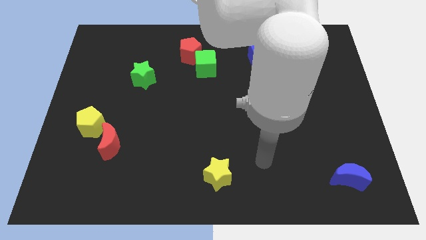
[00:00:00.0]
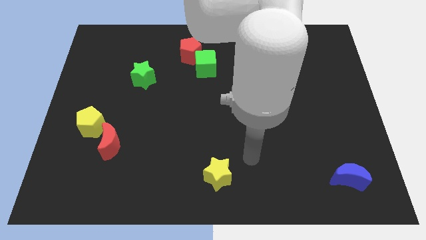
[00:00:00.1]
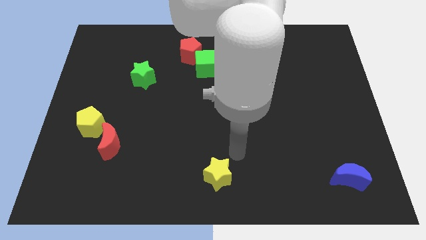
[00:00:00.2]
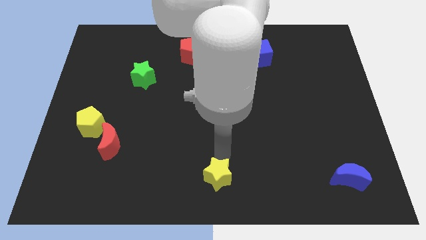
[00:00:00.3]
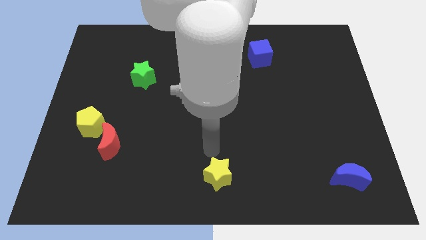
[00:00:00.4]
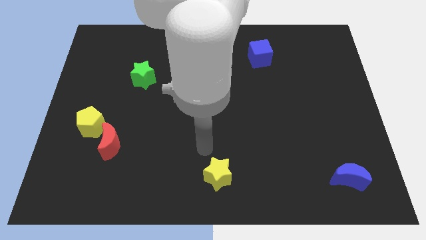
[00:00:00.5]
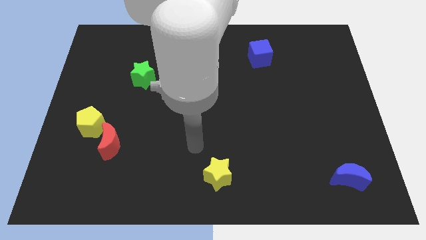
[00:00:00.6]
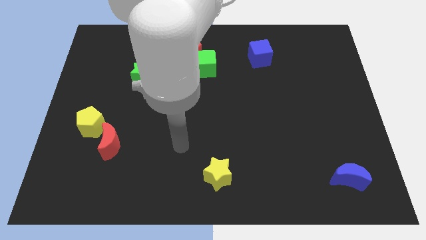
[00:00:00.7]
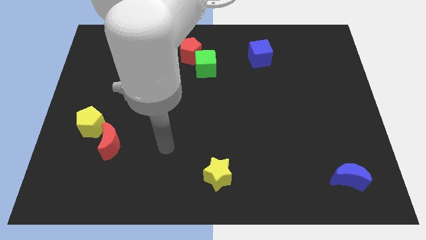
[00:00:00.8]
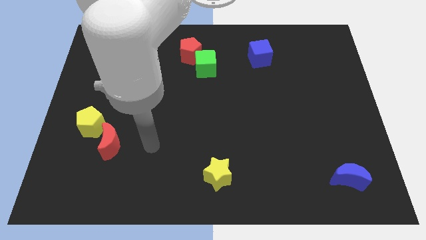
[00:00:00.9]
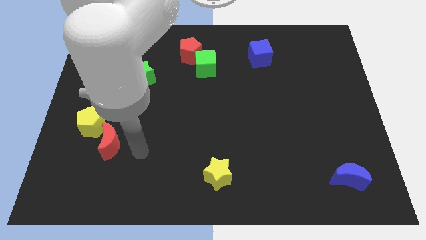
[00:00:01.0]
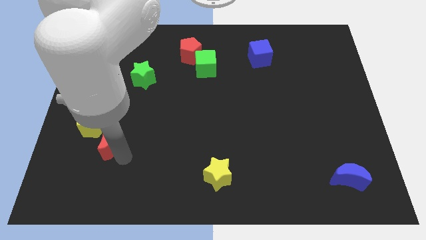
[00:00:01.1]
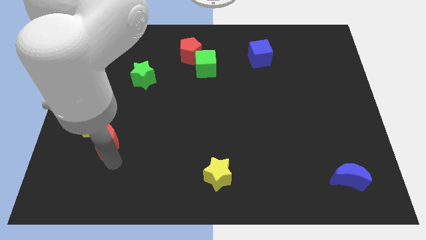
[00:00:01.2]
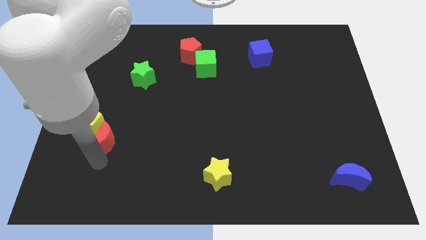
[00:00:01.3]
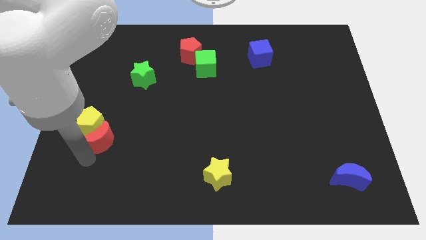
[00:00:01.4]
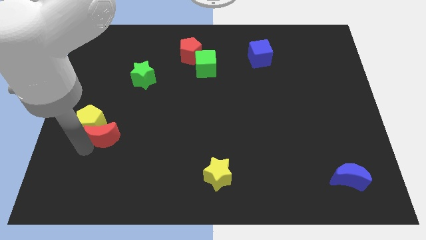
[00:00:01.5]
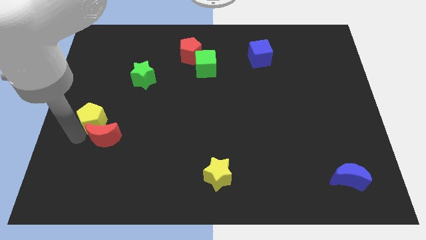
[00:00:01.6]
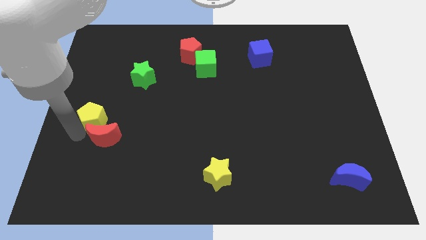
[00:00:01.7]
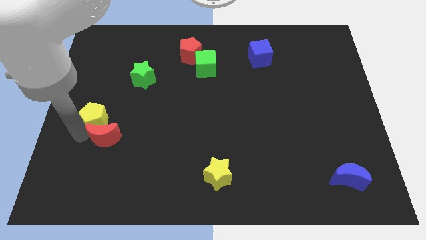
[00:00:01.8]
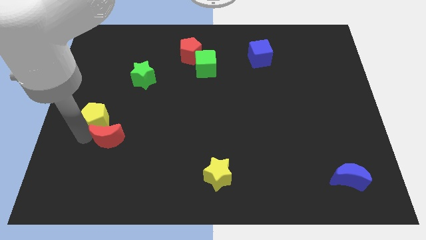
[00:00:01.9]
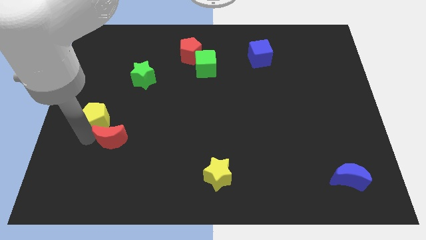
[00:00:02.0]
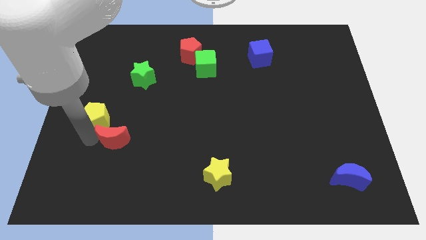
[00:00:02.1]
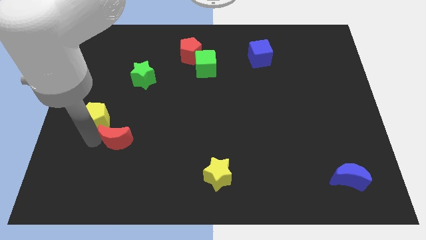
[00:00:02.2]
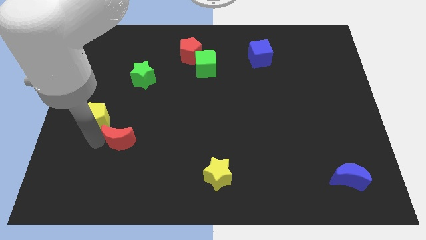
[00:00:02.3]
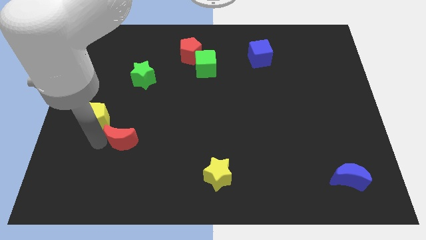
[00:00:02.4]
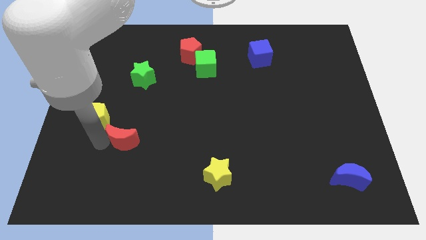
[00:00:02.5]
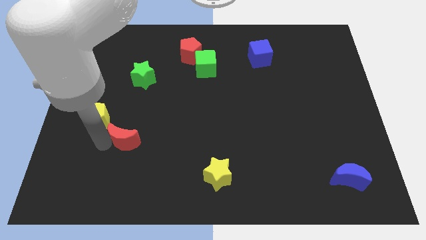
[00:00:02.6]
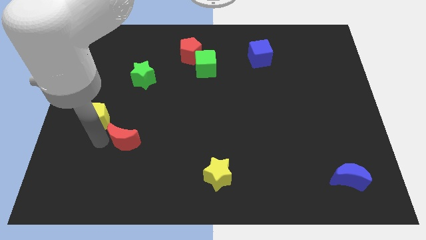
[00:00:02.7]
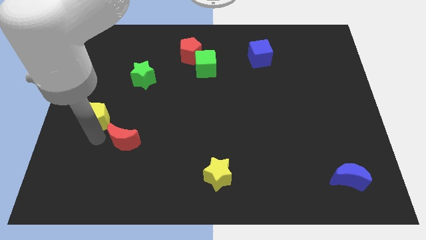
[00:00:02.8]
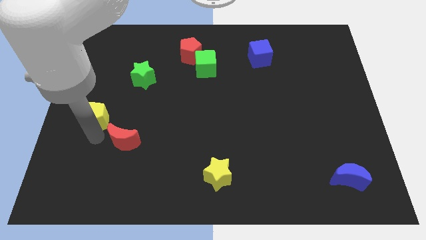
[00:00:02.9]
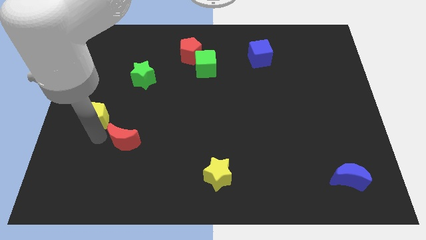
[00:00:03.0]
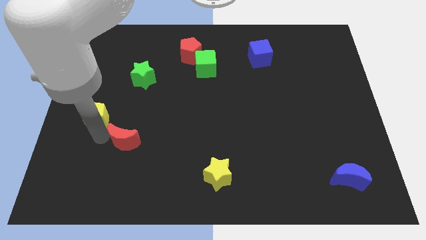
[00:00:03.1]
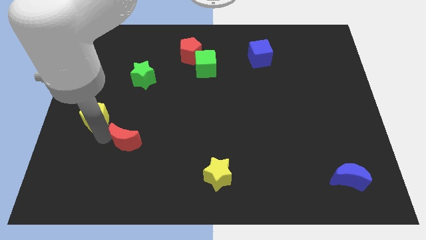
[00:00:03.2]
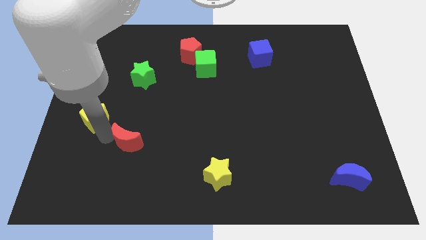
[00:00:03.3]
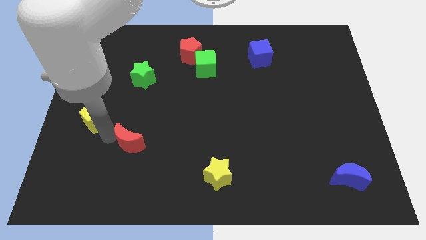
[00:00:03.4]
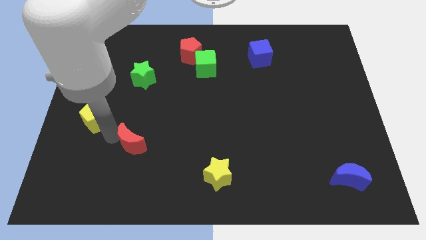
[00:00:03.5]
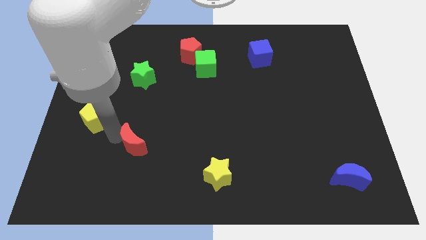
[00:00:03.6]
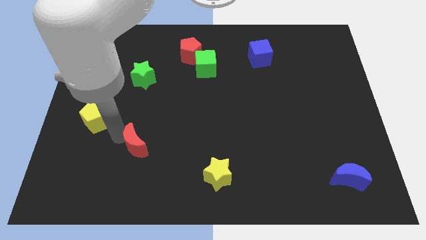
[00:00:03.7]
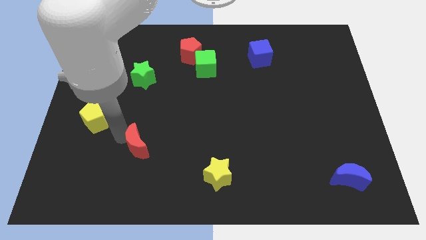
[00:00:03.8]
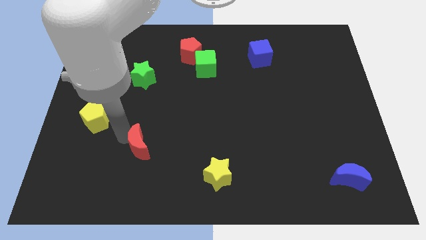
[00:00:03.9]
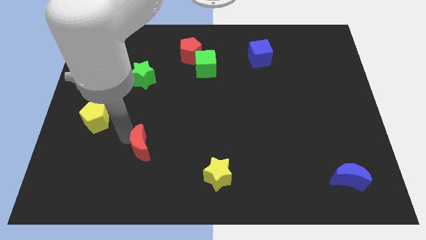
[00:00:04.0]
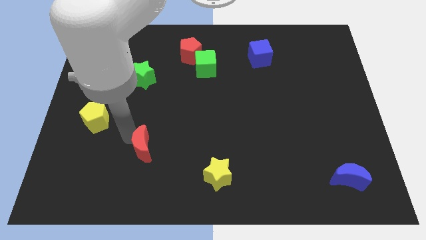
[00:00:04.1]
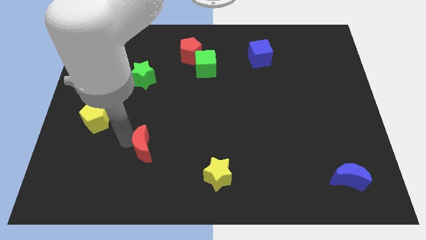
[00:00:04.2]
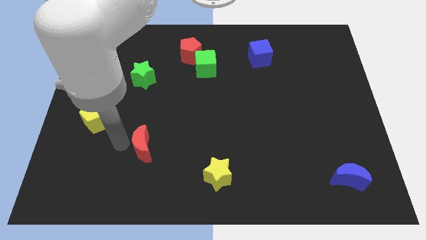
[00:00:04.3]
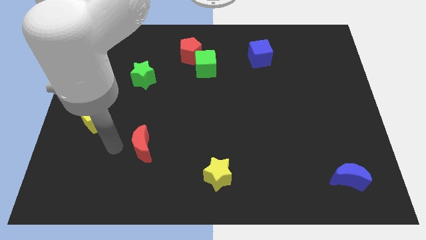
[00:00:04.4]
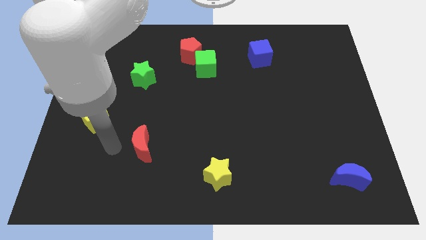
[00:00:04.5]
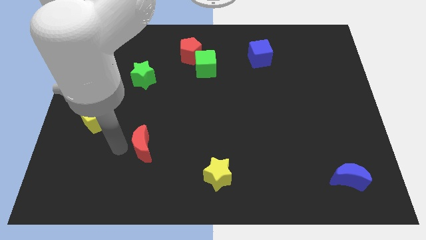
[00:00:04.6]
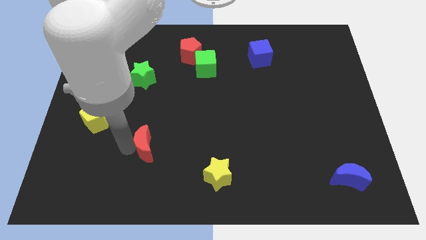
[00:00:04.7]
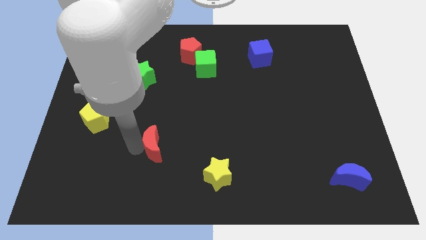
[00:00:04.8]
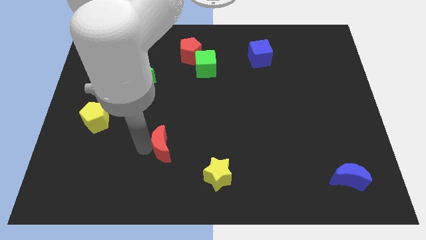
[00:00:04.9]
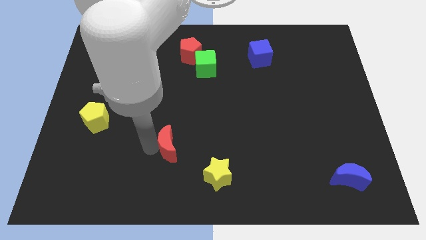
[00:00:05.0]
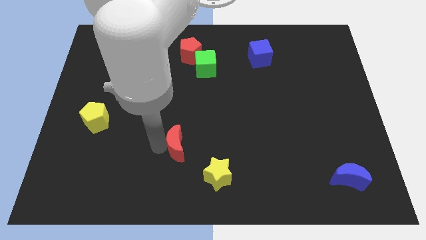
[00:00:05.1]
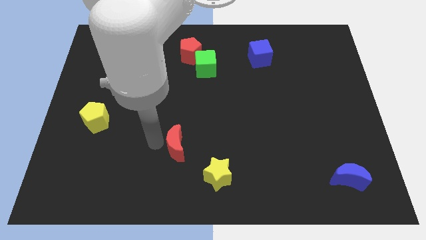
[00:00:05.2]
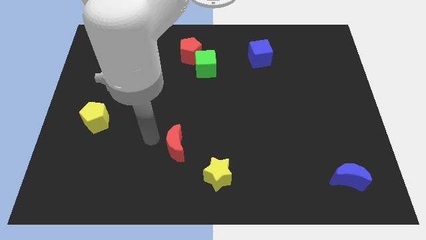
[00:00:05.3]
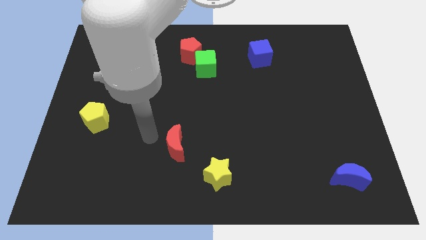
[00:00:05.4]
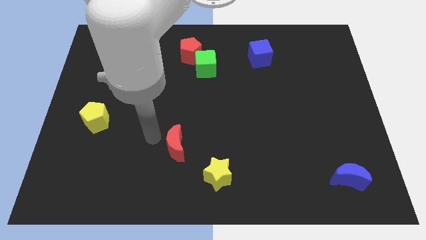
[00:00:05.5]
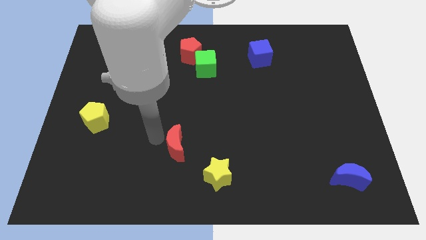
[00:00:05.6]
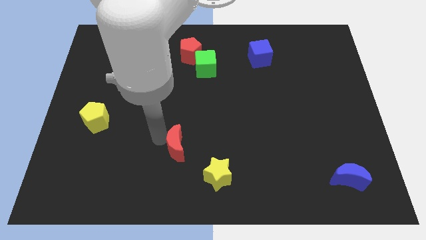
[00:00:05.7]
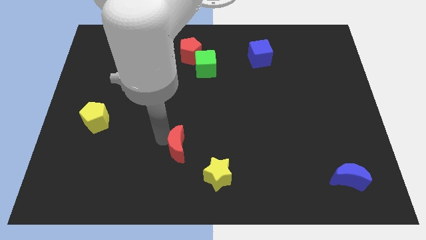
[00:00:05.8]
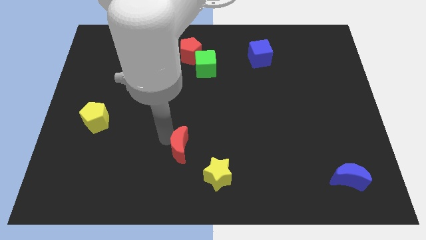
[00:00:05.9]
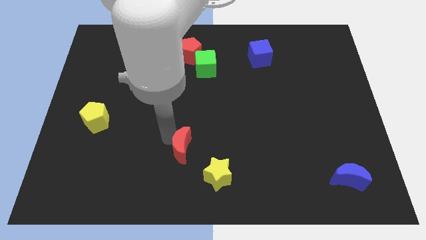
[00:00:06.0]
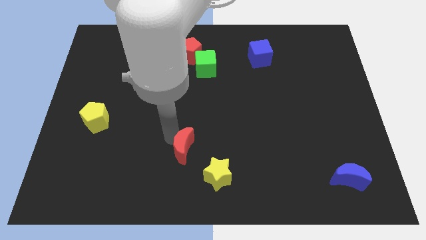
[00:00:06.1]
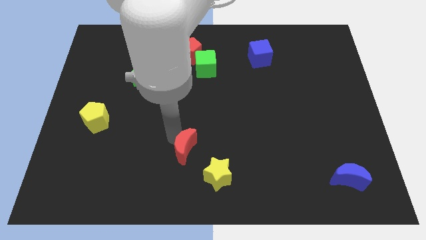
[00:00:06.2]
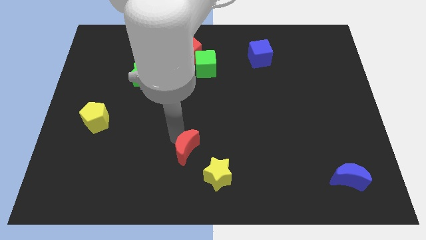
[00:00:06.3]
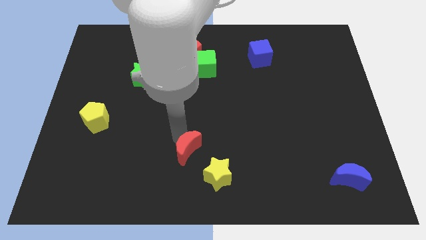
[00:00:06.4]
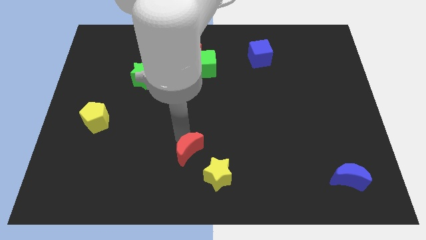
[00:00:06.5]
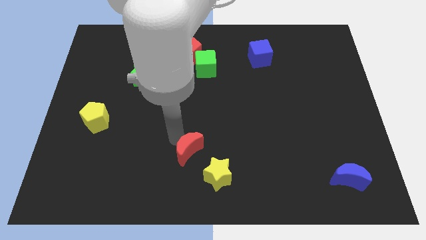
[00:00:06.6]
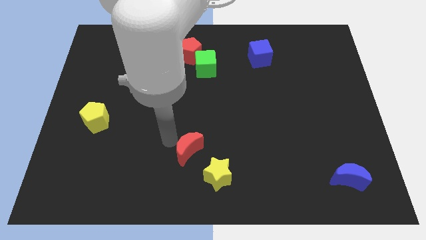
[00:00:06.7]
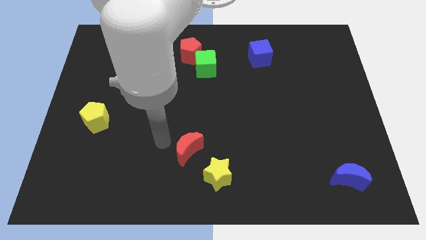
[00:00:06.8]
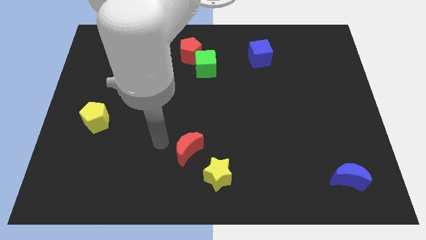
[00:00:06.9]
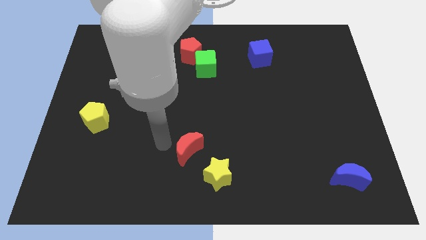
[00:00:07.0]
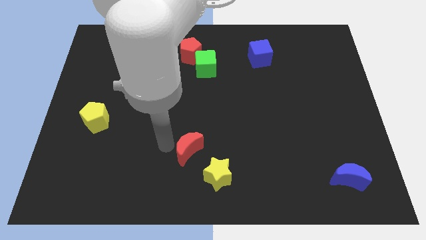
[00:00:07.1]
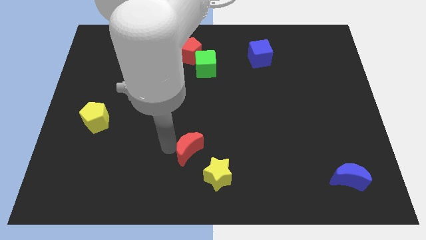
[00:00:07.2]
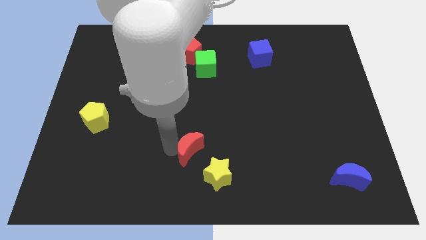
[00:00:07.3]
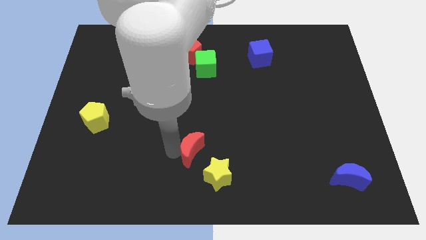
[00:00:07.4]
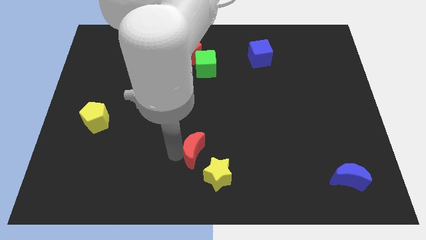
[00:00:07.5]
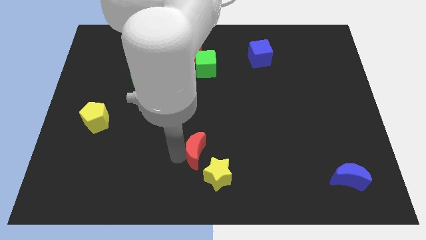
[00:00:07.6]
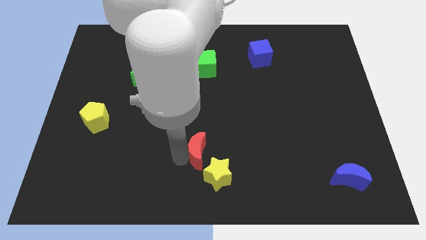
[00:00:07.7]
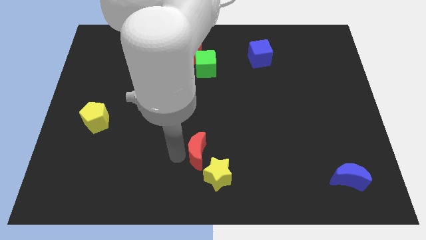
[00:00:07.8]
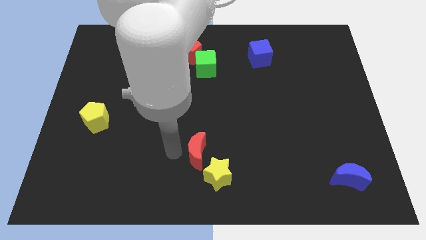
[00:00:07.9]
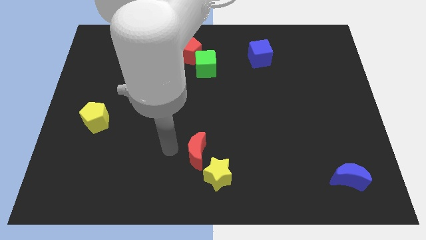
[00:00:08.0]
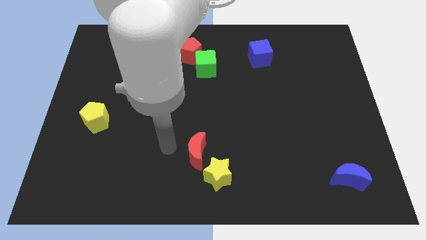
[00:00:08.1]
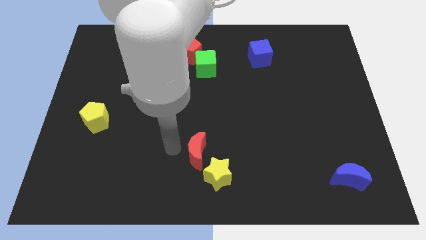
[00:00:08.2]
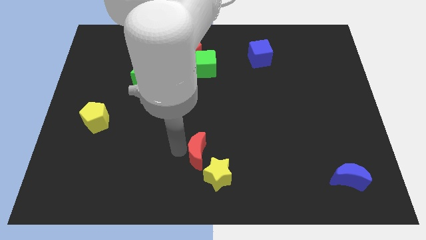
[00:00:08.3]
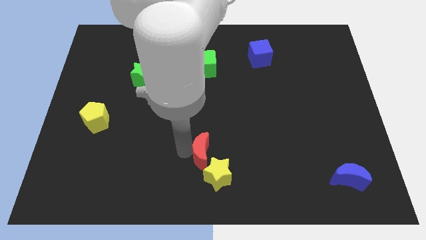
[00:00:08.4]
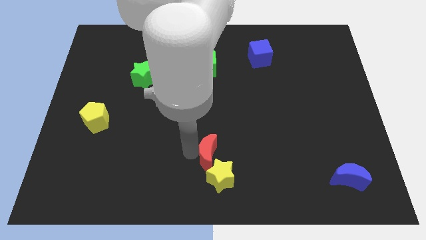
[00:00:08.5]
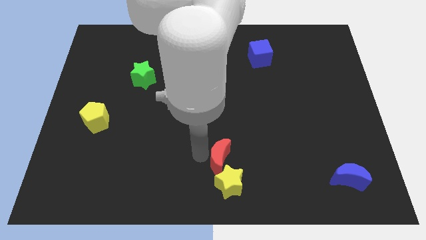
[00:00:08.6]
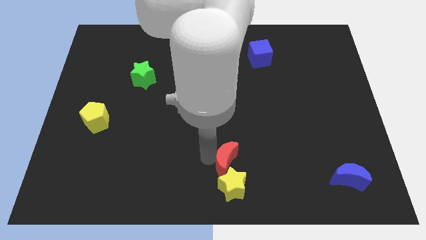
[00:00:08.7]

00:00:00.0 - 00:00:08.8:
slide the red moon to the top right of the yellow star
